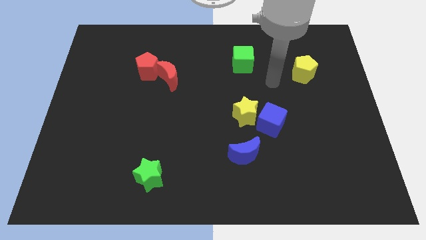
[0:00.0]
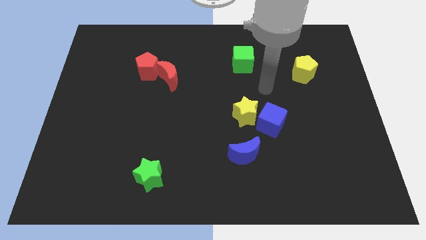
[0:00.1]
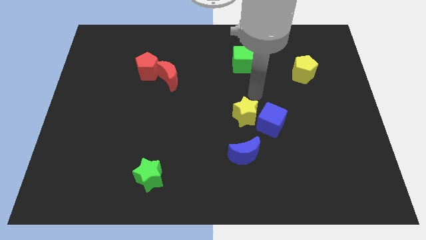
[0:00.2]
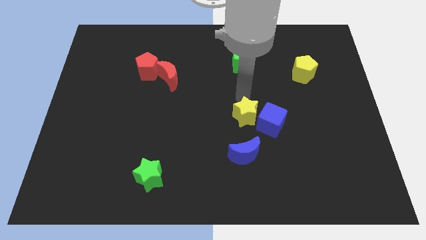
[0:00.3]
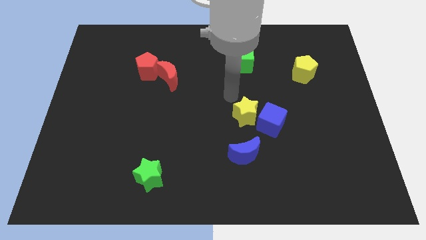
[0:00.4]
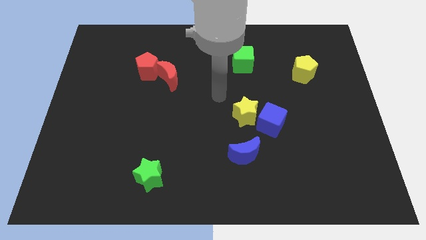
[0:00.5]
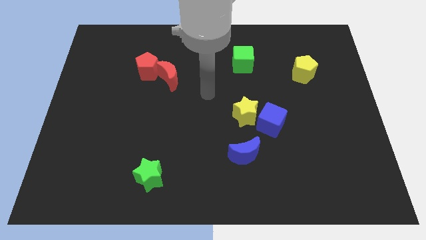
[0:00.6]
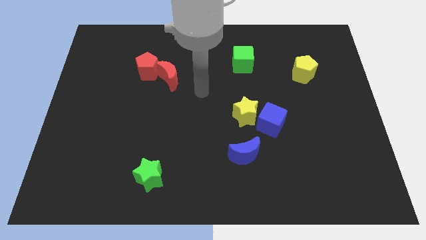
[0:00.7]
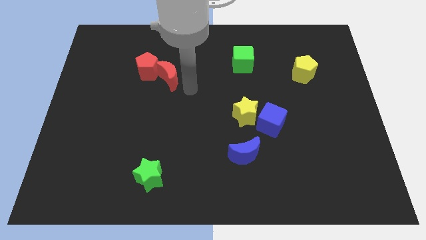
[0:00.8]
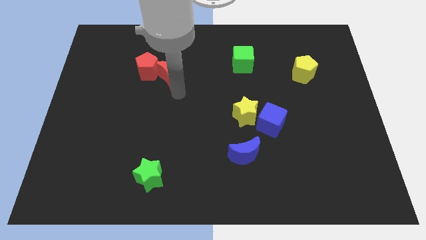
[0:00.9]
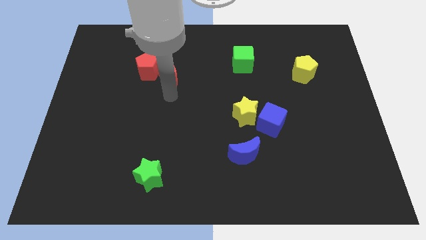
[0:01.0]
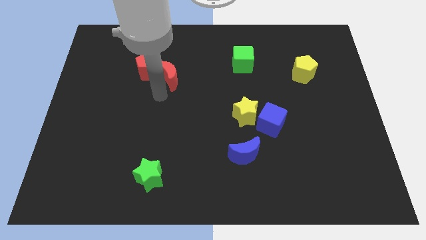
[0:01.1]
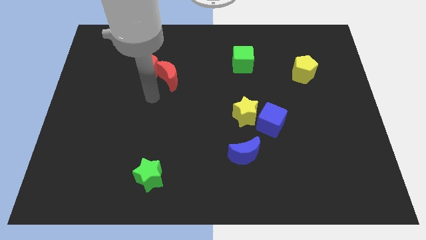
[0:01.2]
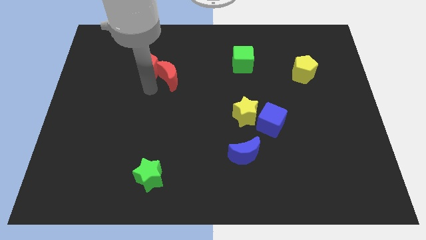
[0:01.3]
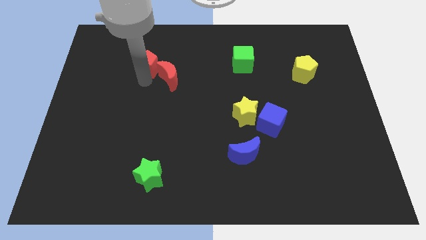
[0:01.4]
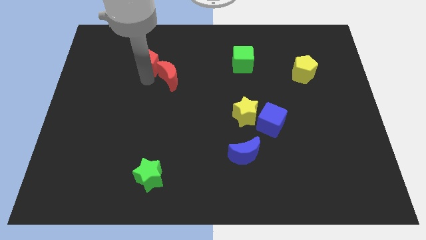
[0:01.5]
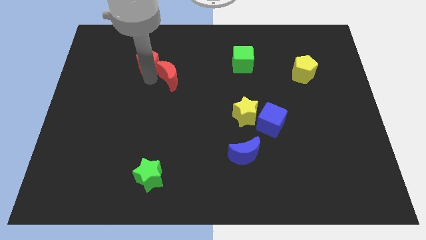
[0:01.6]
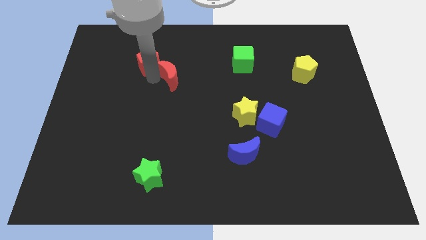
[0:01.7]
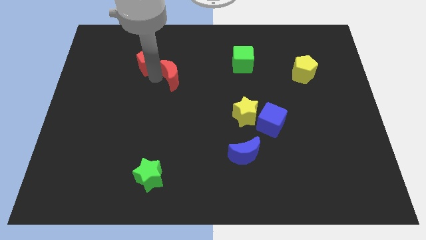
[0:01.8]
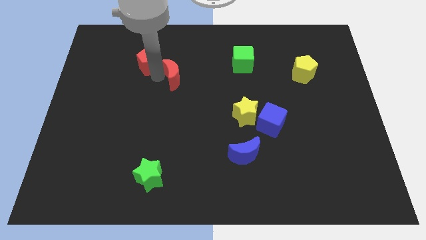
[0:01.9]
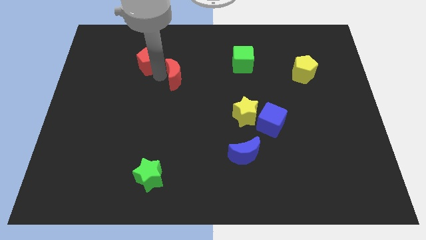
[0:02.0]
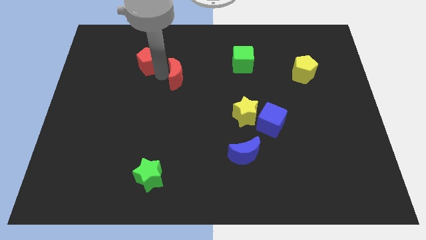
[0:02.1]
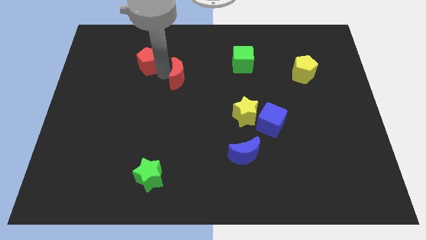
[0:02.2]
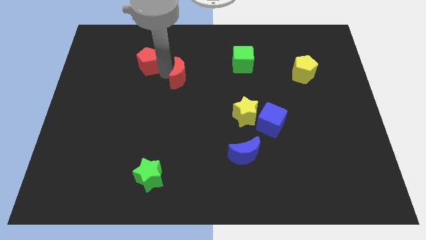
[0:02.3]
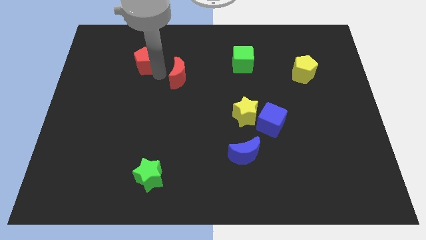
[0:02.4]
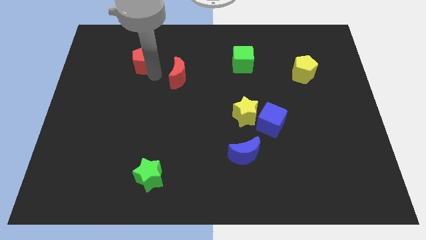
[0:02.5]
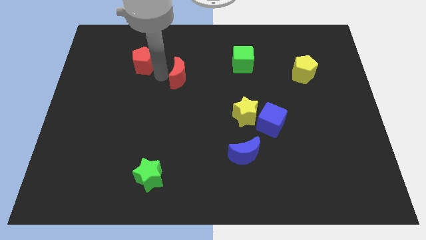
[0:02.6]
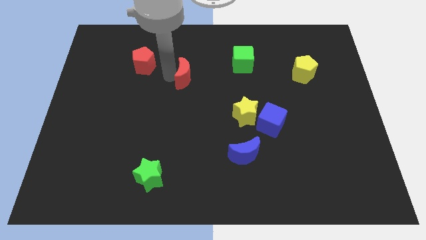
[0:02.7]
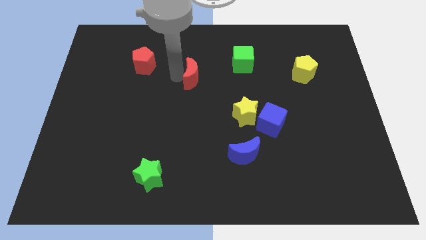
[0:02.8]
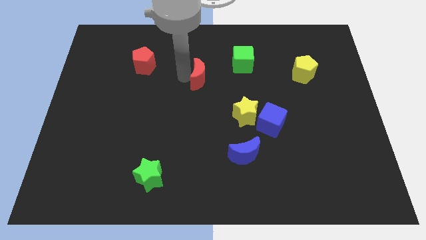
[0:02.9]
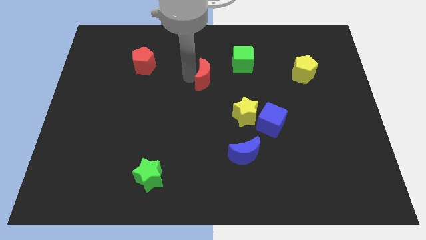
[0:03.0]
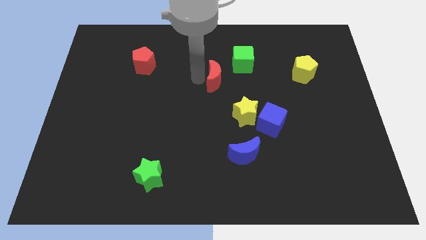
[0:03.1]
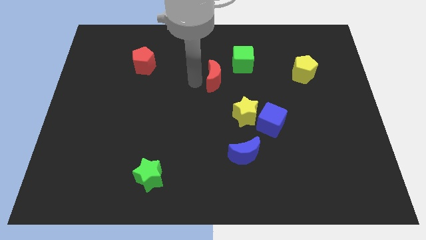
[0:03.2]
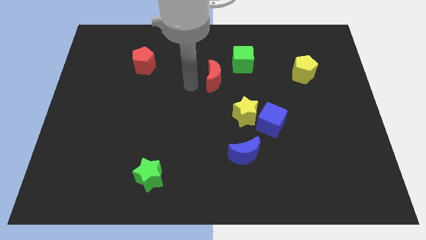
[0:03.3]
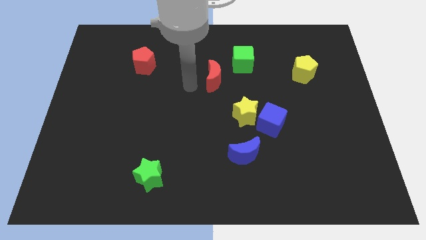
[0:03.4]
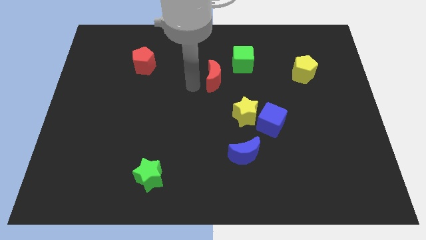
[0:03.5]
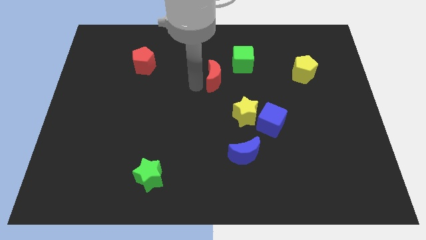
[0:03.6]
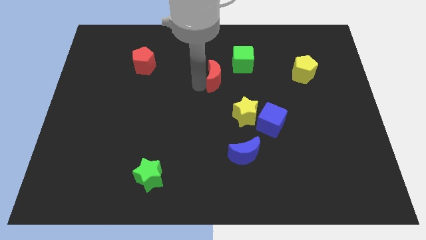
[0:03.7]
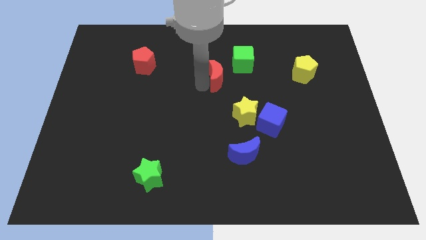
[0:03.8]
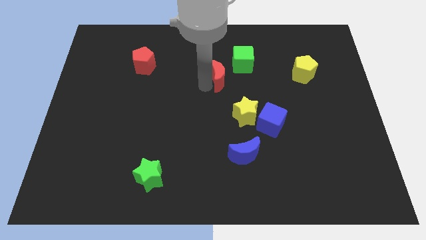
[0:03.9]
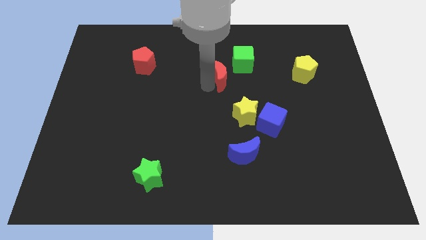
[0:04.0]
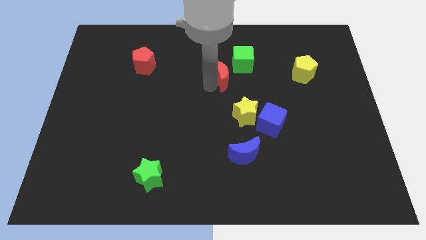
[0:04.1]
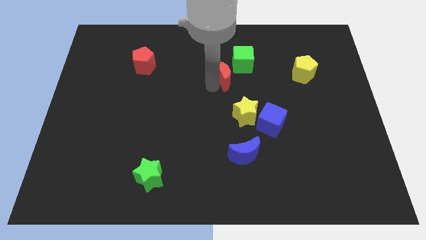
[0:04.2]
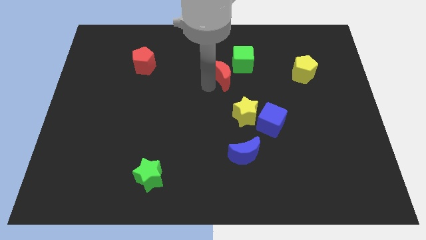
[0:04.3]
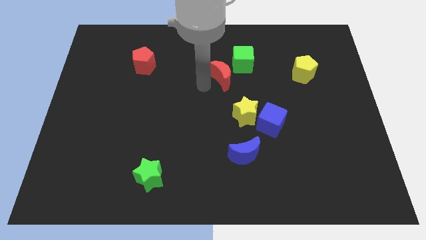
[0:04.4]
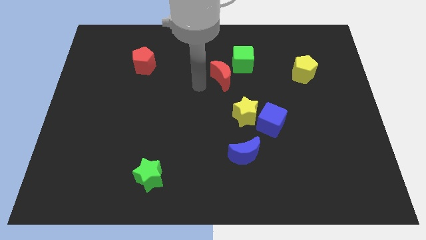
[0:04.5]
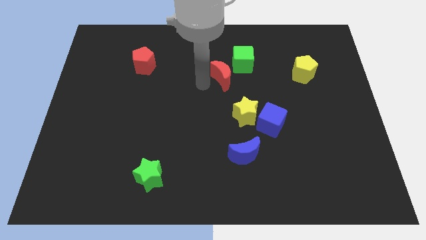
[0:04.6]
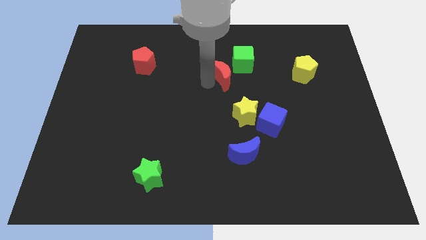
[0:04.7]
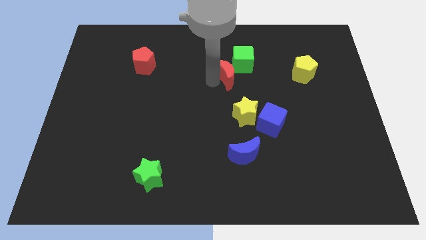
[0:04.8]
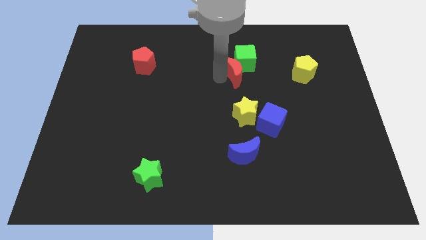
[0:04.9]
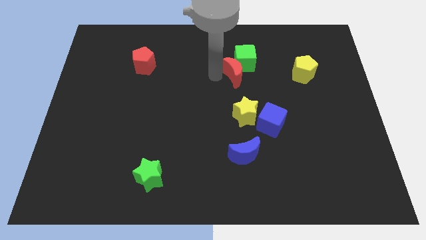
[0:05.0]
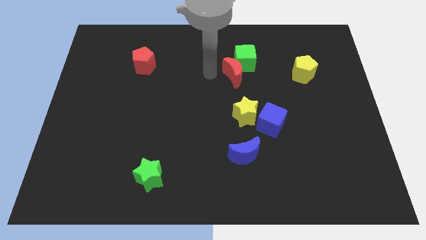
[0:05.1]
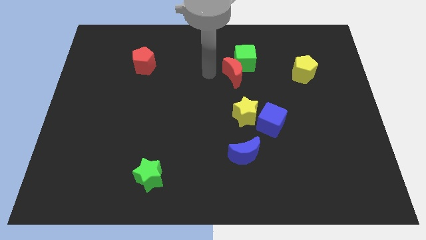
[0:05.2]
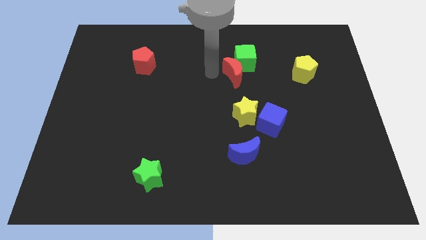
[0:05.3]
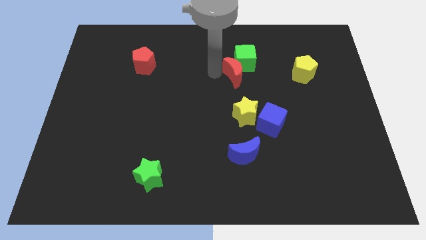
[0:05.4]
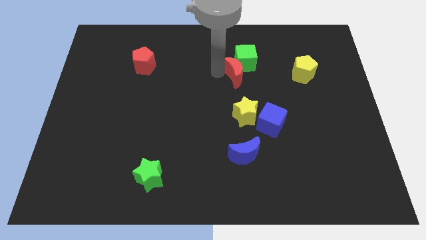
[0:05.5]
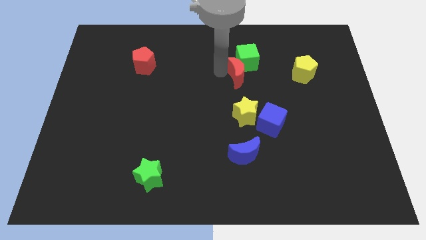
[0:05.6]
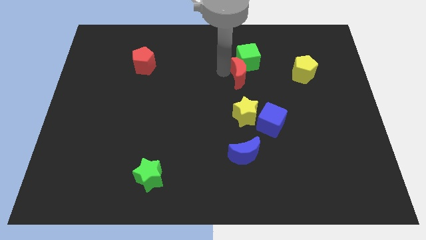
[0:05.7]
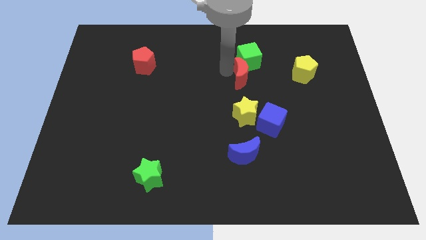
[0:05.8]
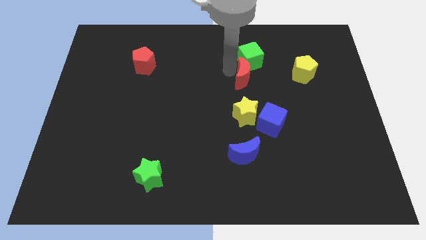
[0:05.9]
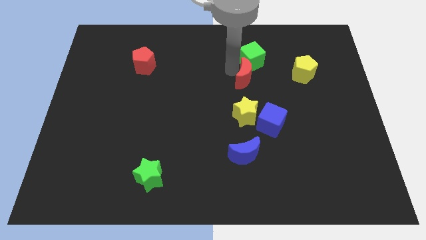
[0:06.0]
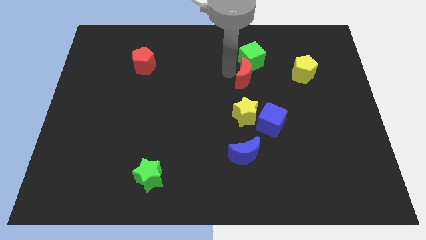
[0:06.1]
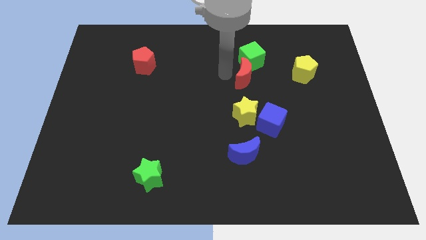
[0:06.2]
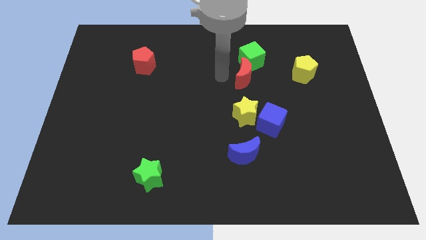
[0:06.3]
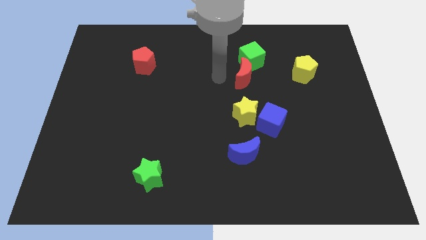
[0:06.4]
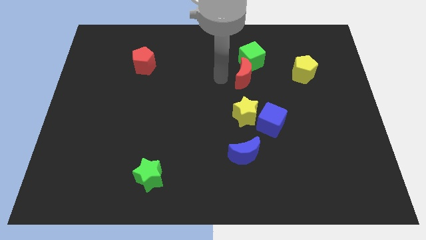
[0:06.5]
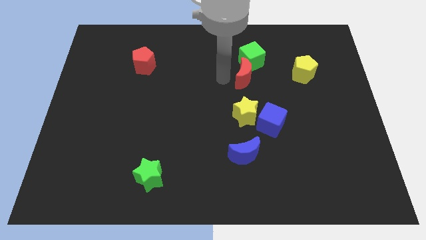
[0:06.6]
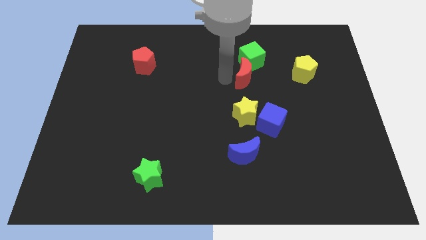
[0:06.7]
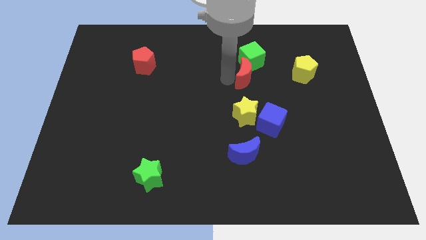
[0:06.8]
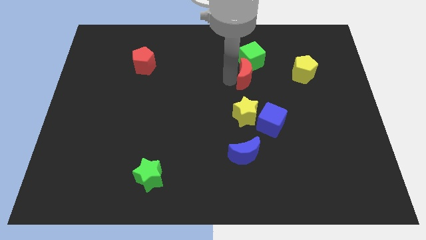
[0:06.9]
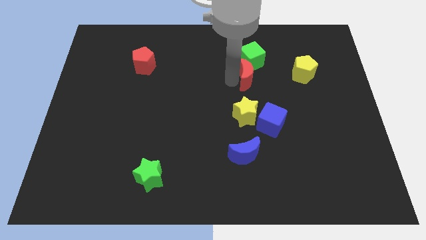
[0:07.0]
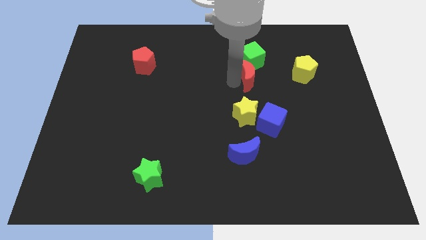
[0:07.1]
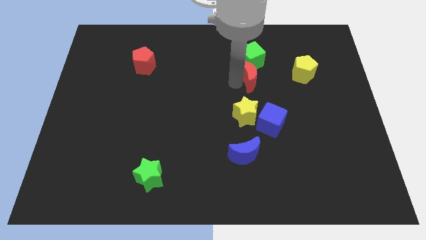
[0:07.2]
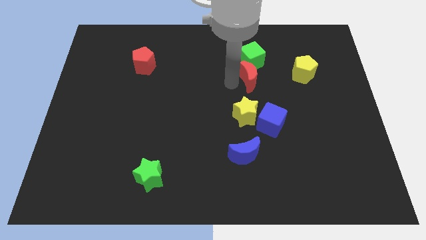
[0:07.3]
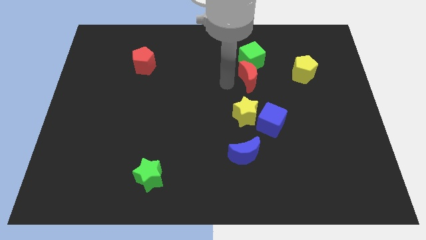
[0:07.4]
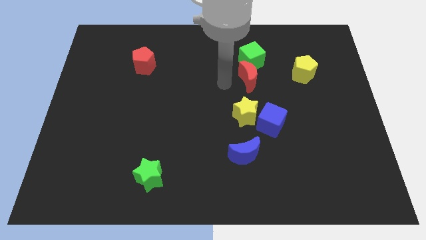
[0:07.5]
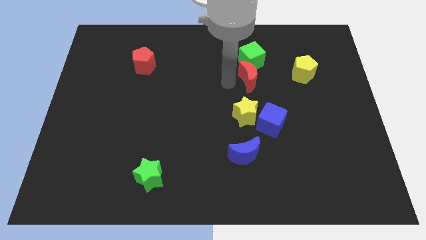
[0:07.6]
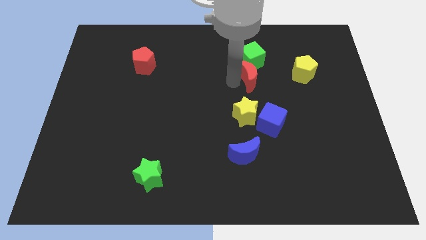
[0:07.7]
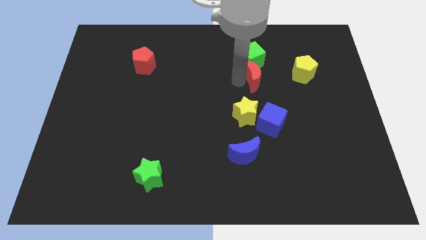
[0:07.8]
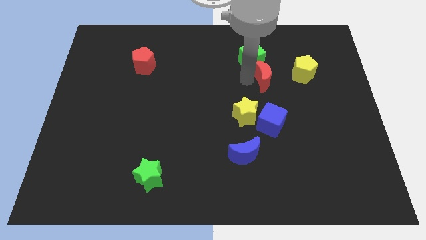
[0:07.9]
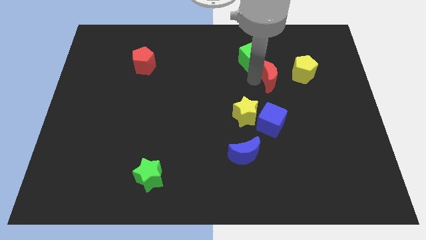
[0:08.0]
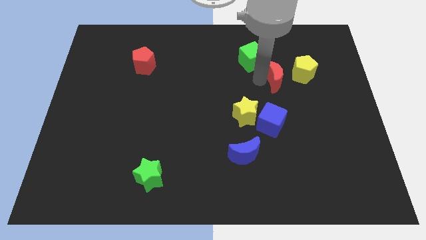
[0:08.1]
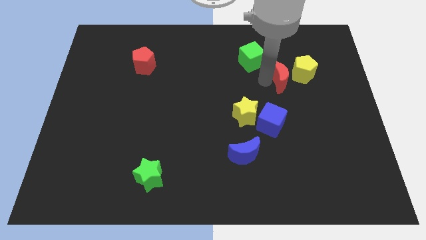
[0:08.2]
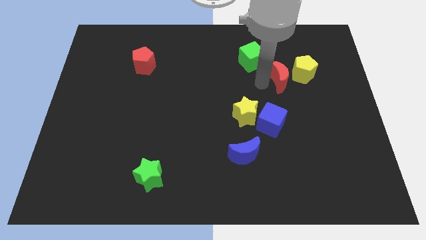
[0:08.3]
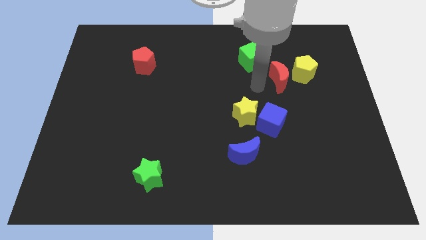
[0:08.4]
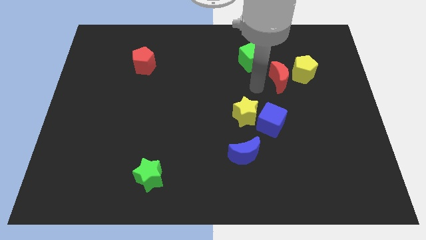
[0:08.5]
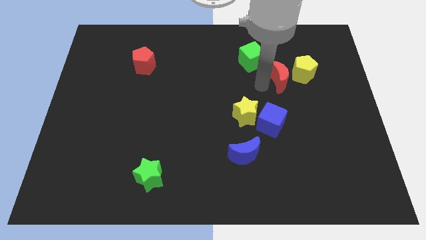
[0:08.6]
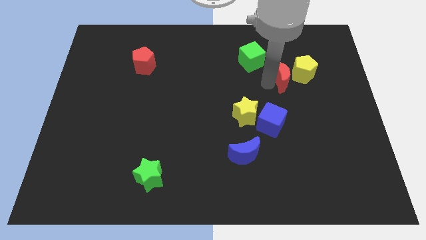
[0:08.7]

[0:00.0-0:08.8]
push the red moon close to the yellow pentagon
